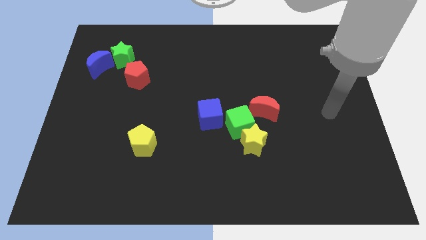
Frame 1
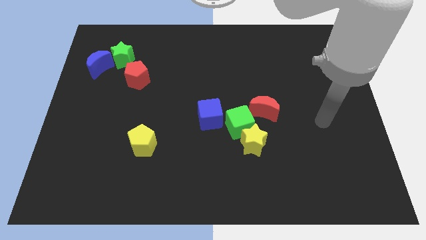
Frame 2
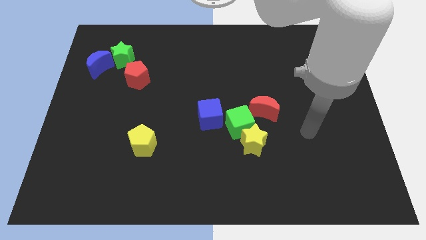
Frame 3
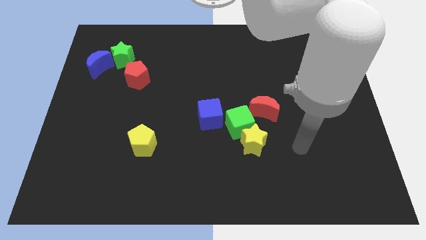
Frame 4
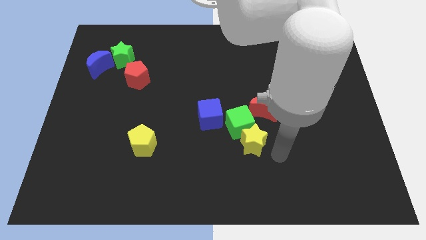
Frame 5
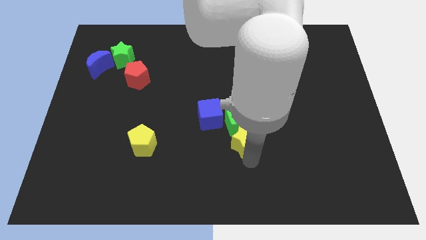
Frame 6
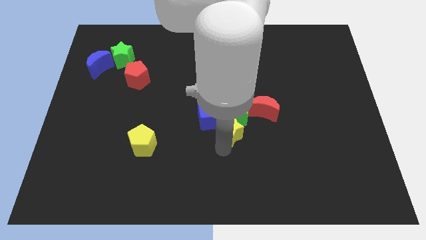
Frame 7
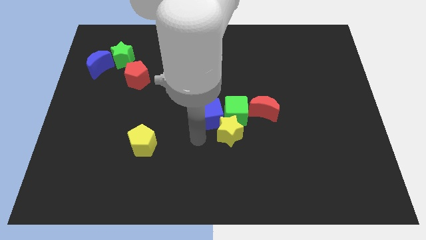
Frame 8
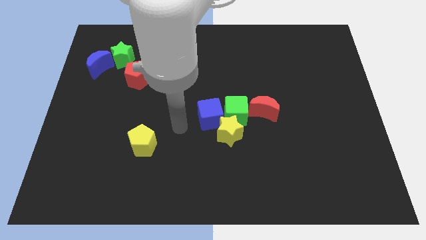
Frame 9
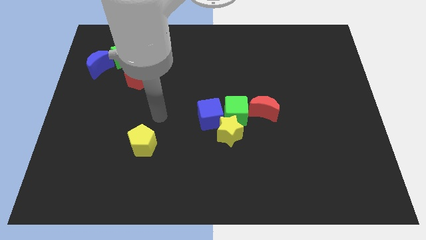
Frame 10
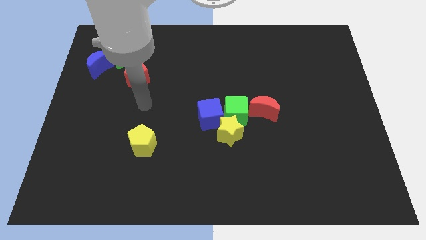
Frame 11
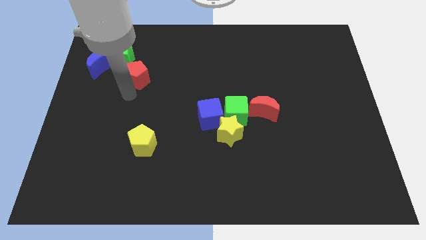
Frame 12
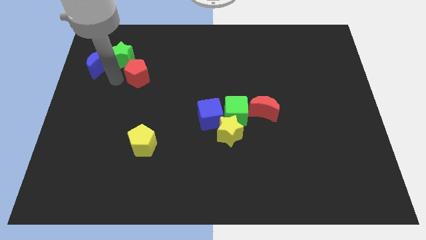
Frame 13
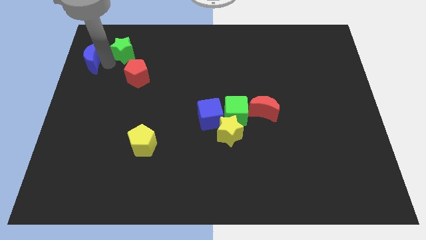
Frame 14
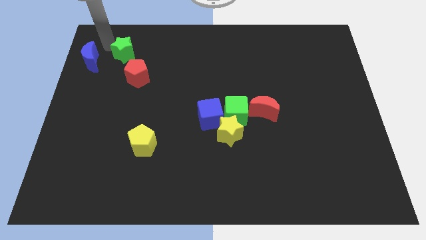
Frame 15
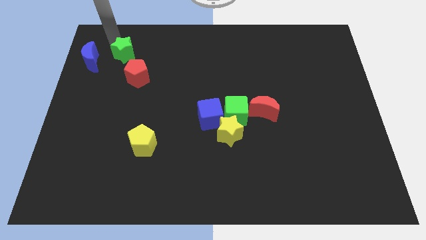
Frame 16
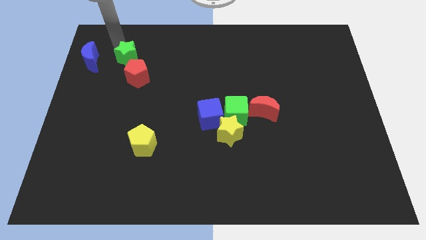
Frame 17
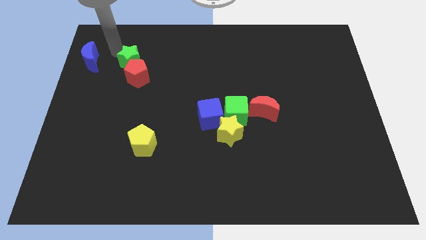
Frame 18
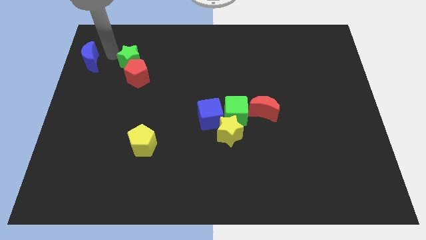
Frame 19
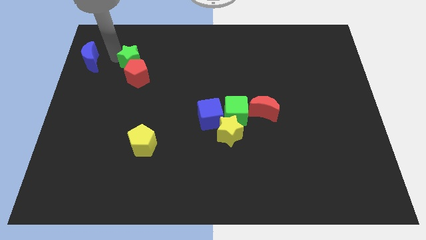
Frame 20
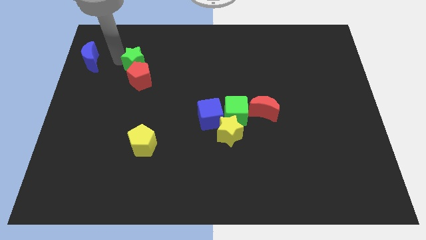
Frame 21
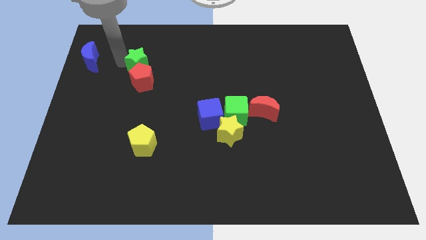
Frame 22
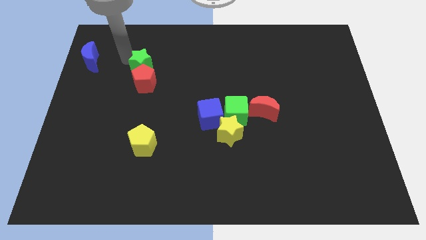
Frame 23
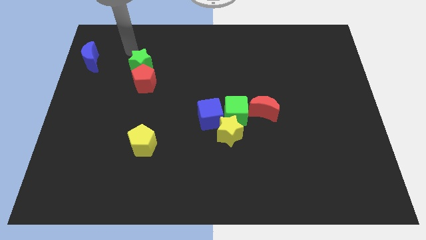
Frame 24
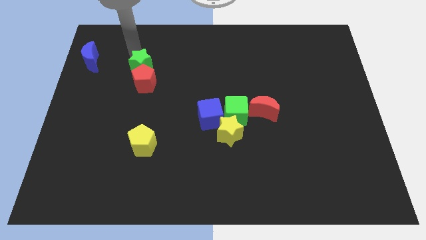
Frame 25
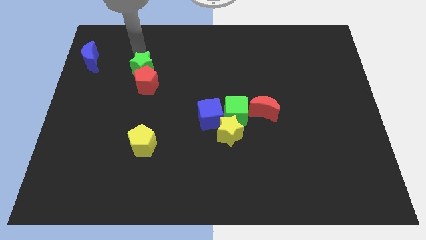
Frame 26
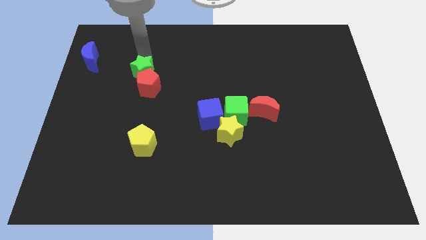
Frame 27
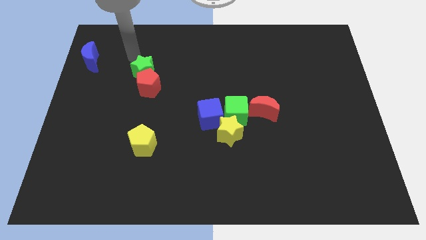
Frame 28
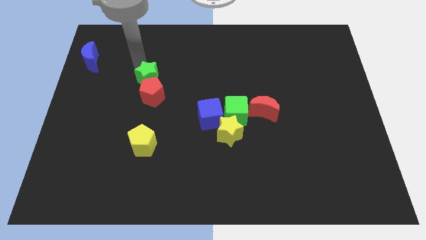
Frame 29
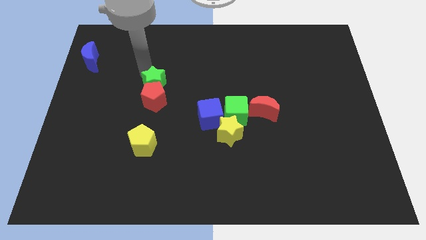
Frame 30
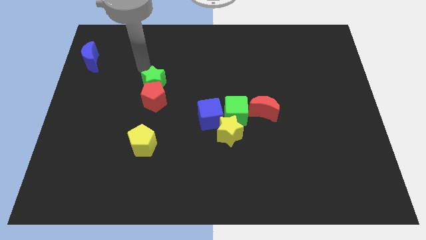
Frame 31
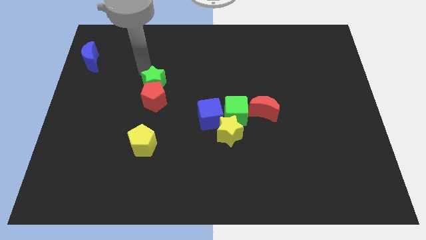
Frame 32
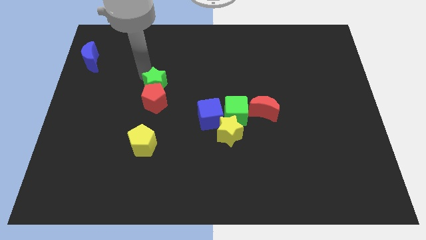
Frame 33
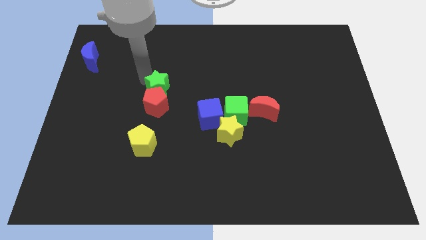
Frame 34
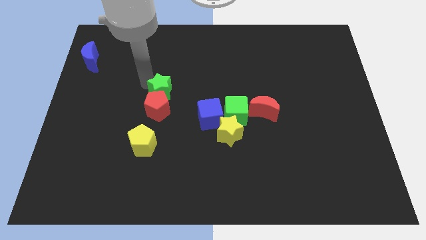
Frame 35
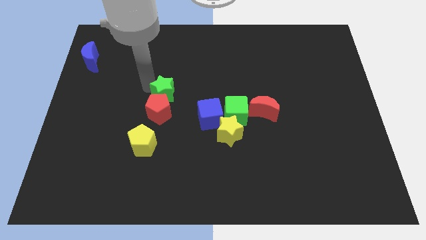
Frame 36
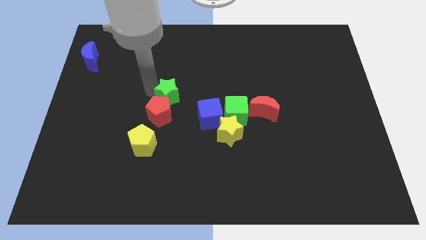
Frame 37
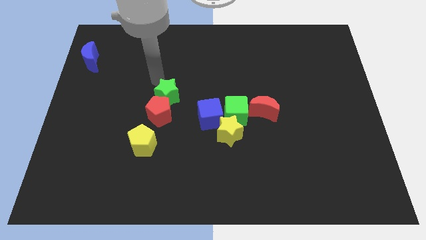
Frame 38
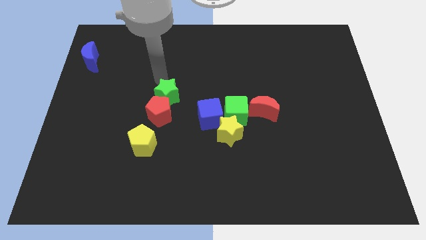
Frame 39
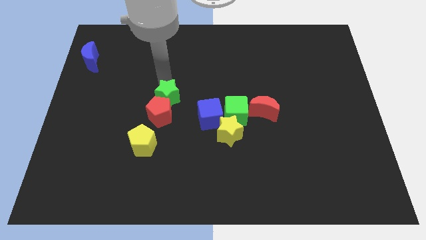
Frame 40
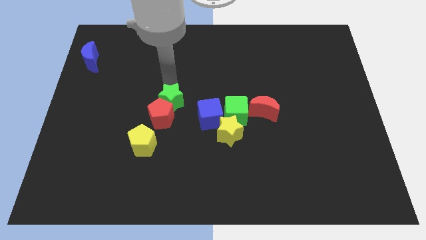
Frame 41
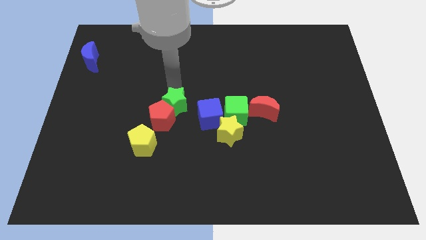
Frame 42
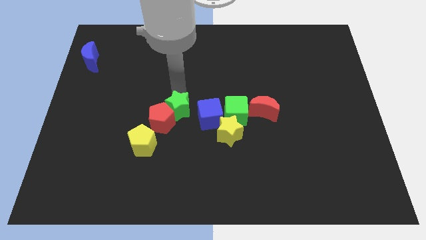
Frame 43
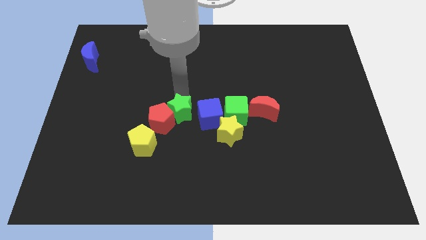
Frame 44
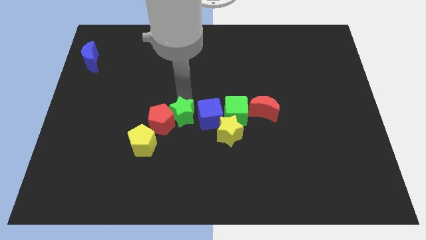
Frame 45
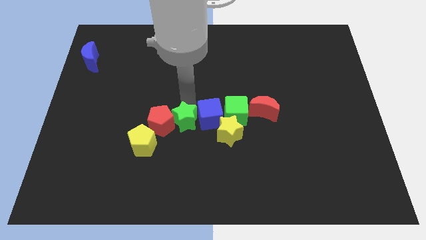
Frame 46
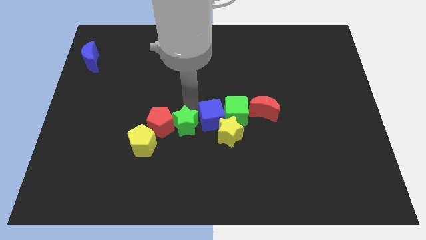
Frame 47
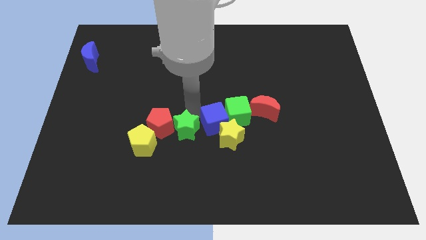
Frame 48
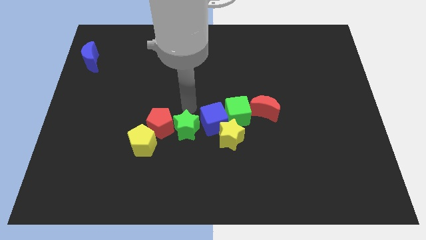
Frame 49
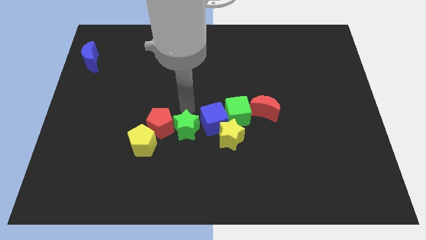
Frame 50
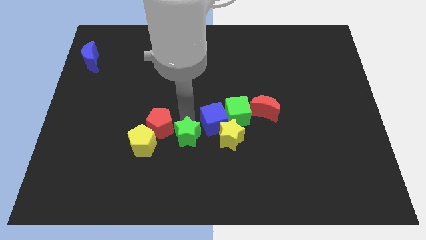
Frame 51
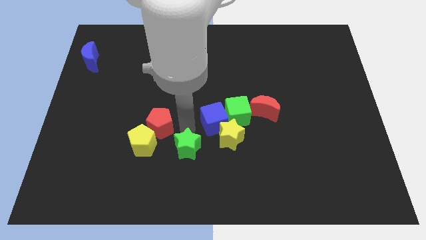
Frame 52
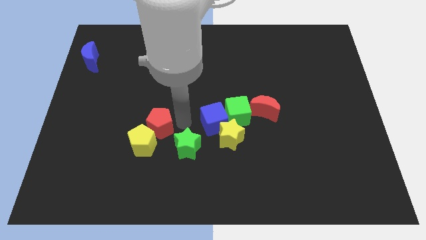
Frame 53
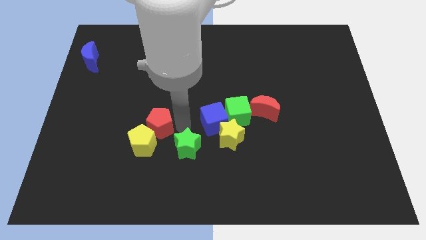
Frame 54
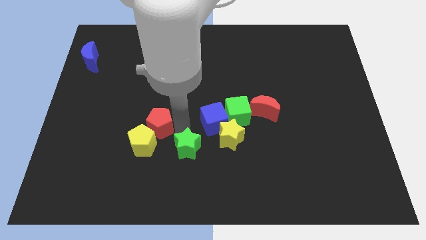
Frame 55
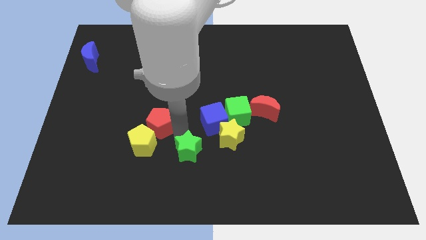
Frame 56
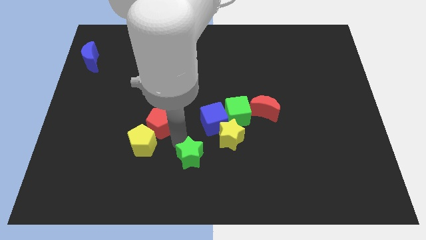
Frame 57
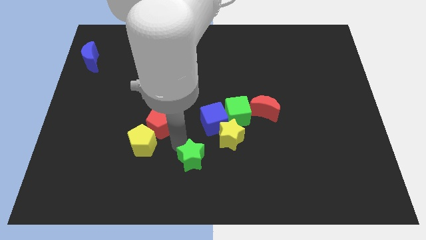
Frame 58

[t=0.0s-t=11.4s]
slide the green star to the bottom
